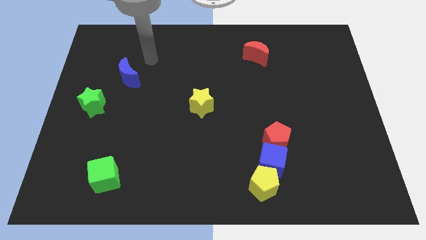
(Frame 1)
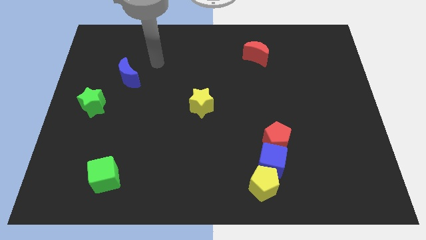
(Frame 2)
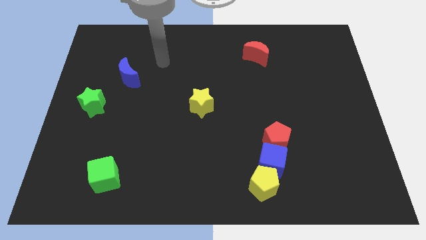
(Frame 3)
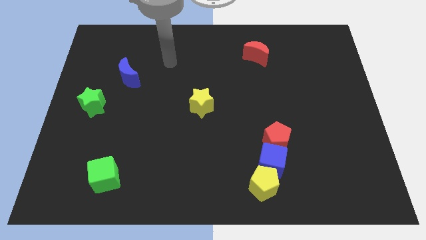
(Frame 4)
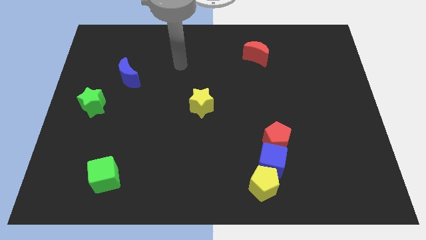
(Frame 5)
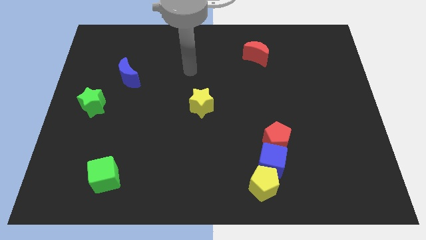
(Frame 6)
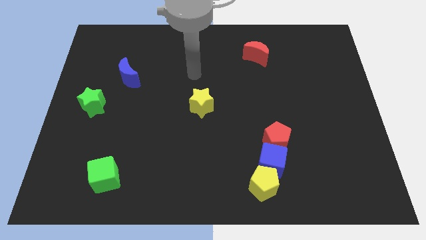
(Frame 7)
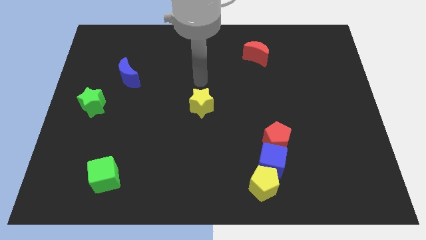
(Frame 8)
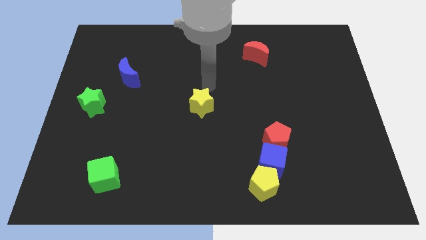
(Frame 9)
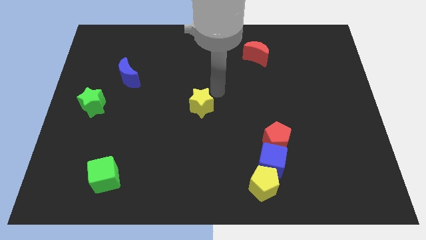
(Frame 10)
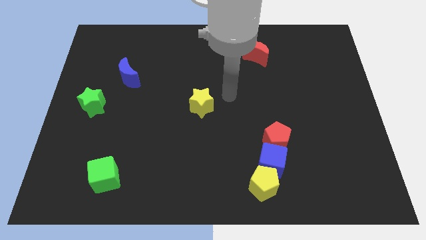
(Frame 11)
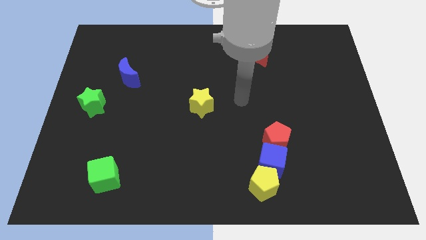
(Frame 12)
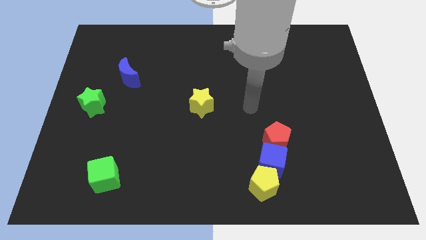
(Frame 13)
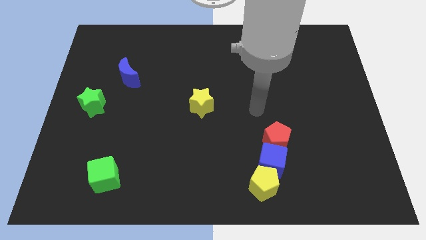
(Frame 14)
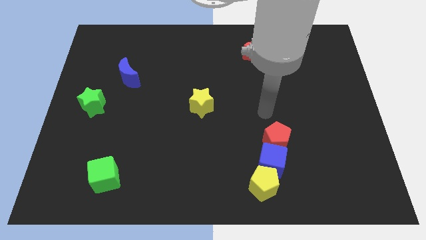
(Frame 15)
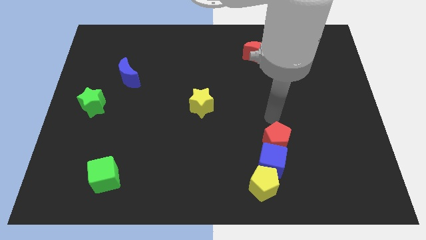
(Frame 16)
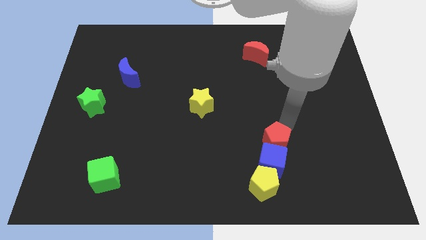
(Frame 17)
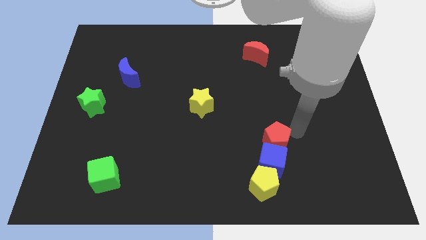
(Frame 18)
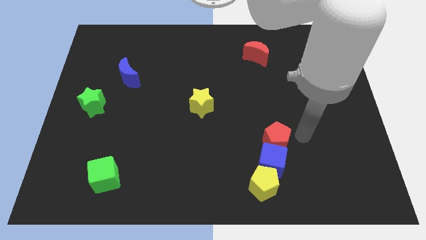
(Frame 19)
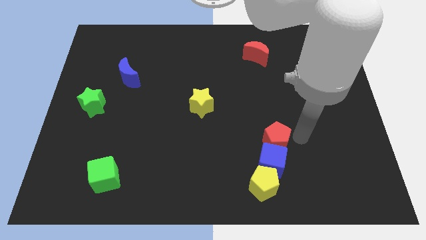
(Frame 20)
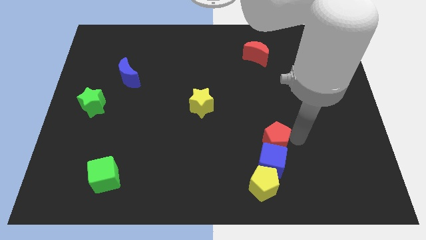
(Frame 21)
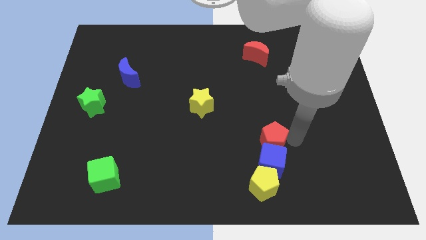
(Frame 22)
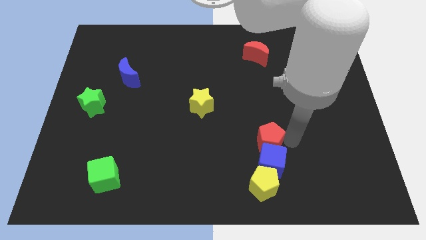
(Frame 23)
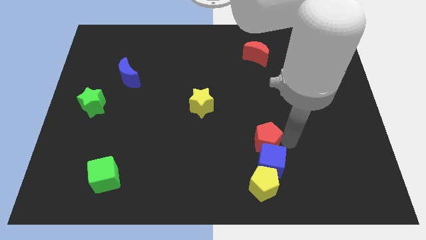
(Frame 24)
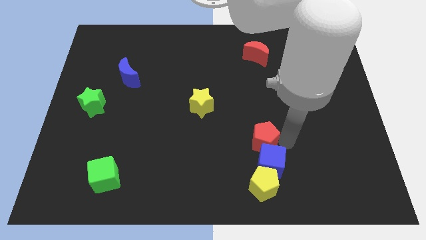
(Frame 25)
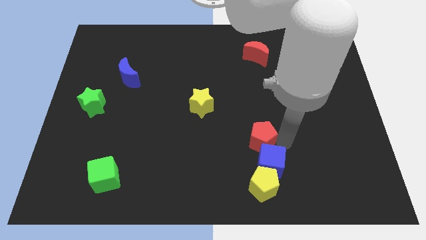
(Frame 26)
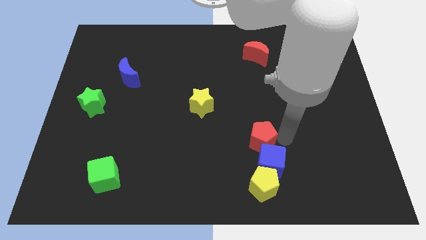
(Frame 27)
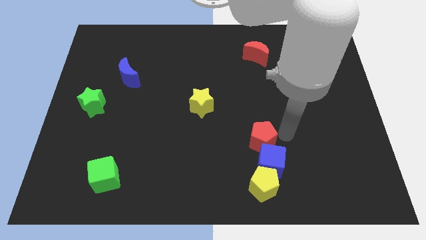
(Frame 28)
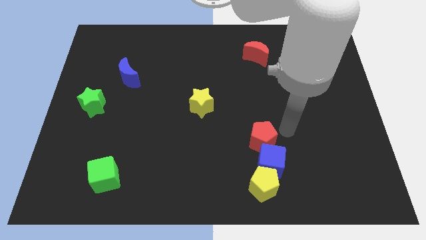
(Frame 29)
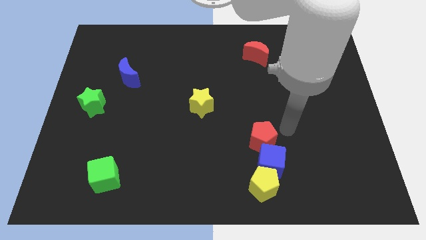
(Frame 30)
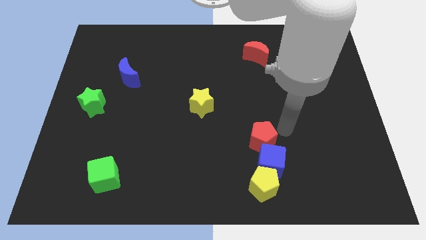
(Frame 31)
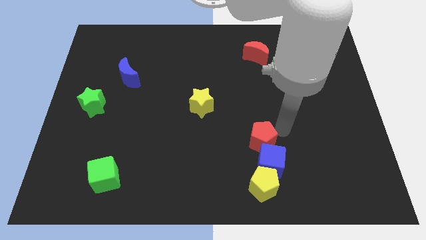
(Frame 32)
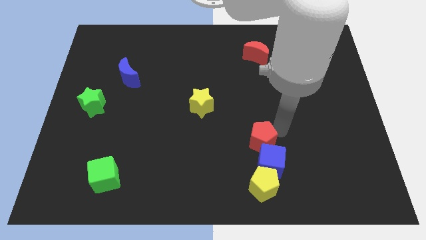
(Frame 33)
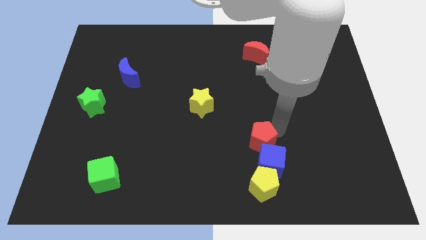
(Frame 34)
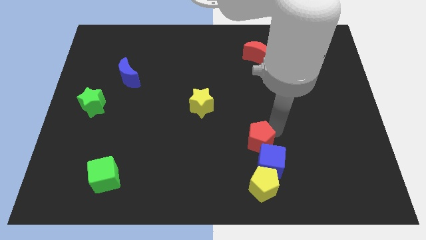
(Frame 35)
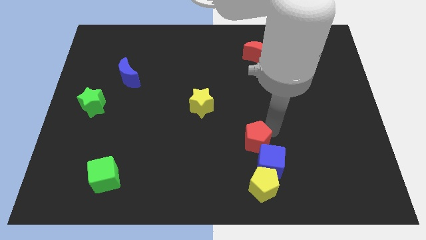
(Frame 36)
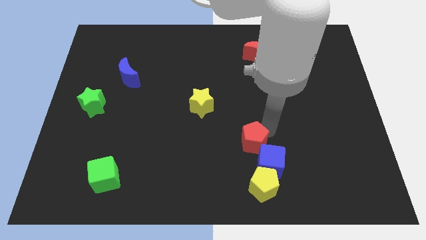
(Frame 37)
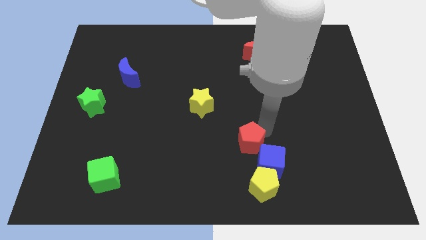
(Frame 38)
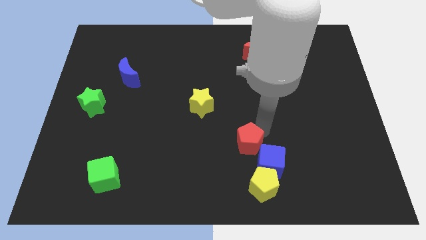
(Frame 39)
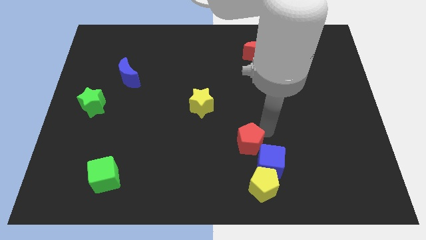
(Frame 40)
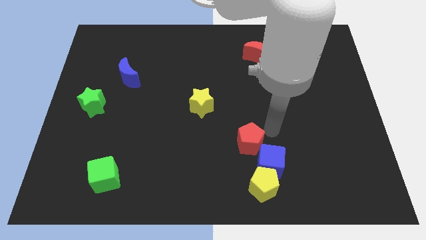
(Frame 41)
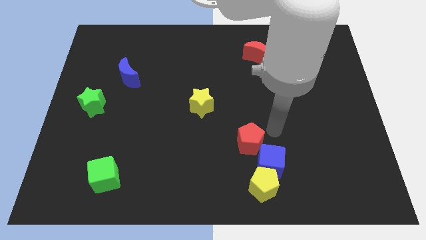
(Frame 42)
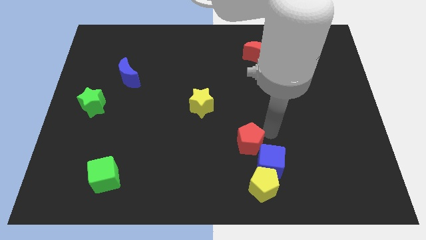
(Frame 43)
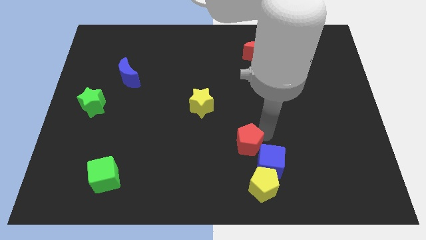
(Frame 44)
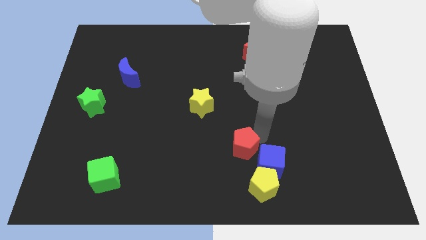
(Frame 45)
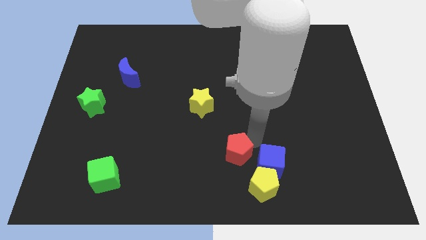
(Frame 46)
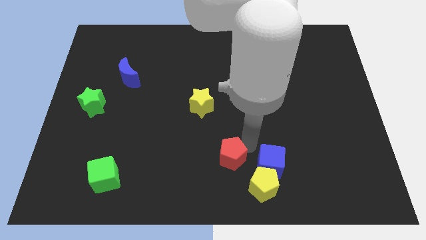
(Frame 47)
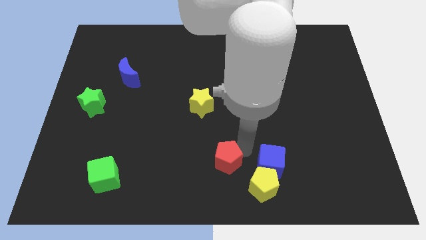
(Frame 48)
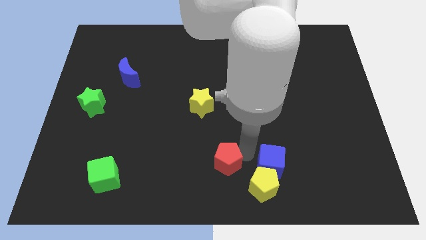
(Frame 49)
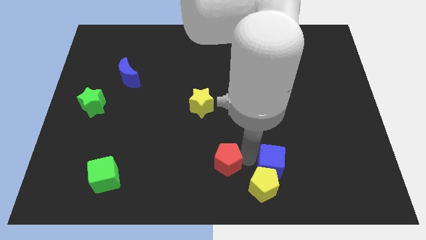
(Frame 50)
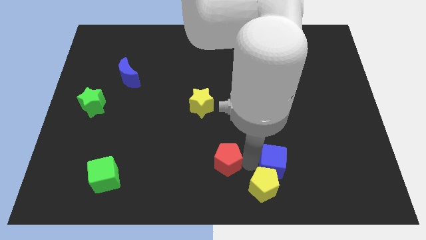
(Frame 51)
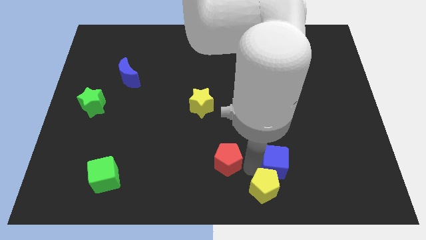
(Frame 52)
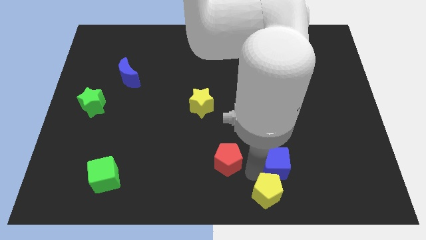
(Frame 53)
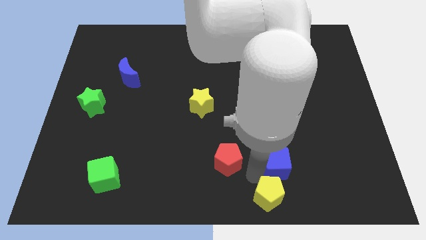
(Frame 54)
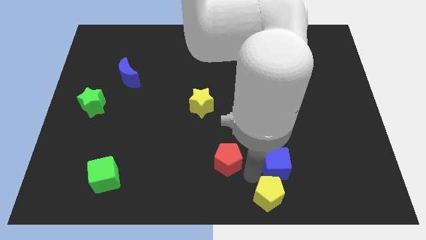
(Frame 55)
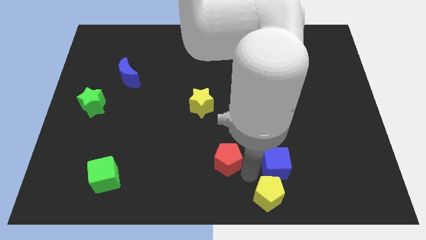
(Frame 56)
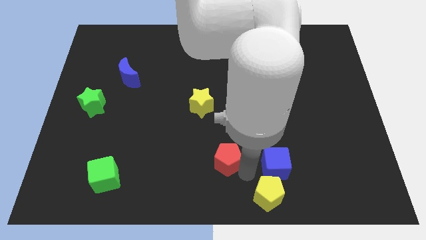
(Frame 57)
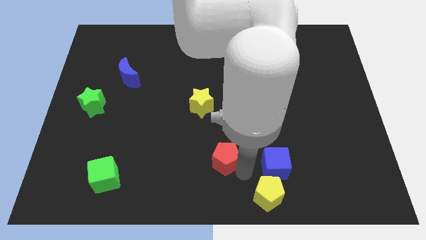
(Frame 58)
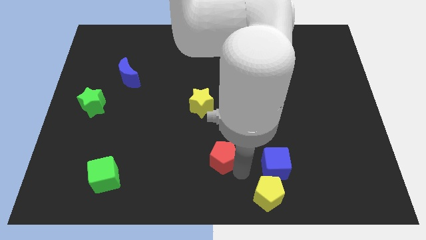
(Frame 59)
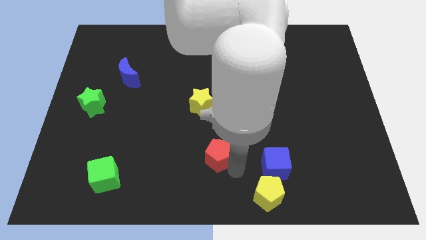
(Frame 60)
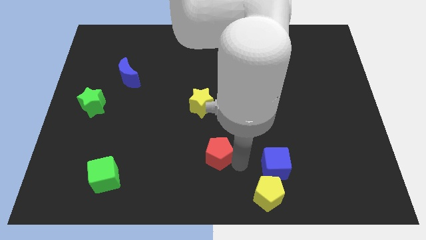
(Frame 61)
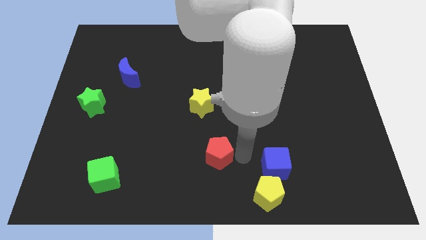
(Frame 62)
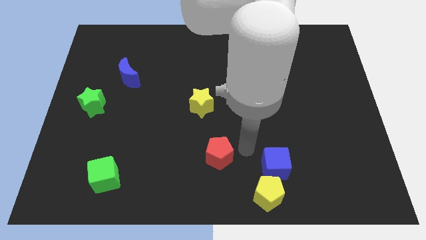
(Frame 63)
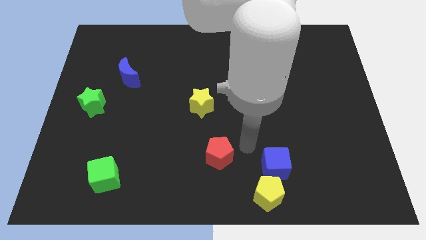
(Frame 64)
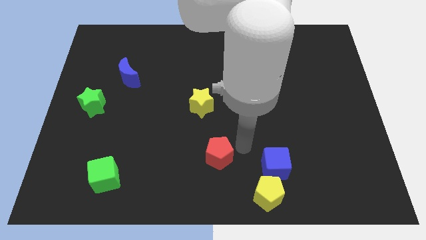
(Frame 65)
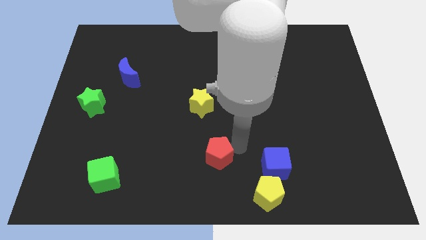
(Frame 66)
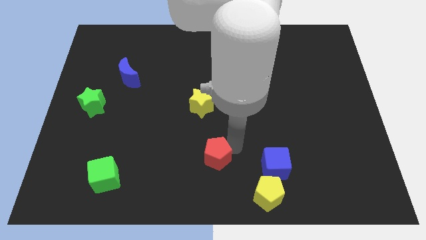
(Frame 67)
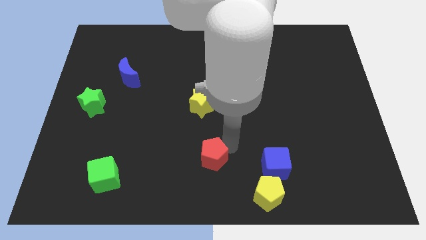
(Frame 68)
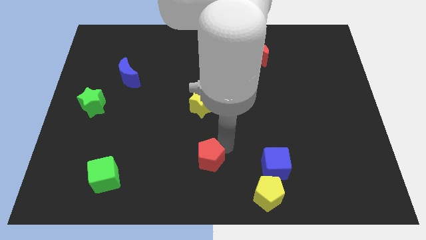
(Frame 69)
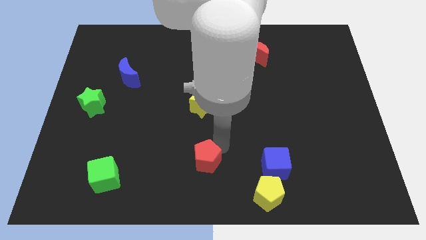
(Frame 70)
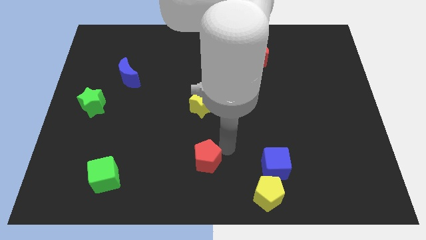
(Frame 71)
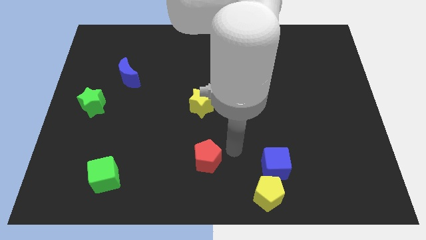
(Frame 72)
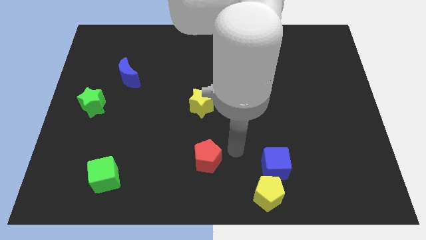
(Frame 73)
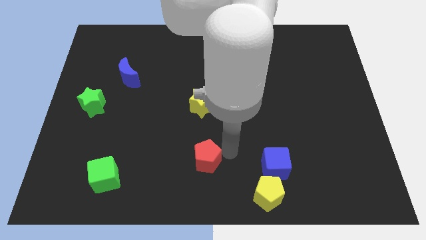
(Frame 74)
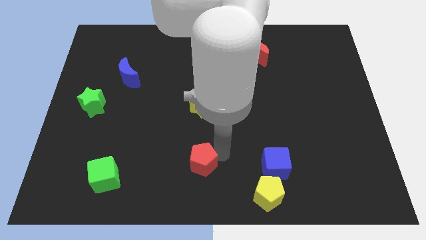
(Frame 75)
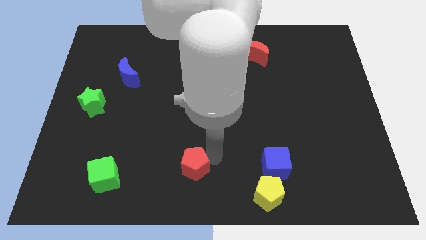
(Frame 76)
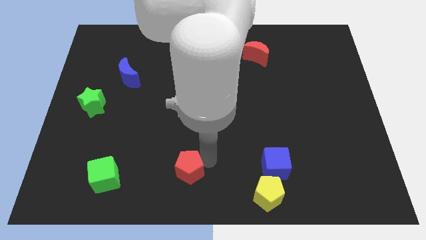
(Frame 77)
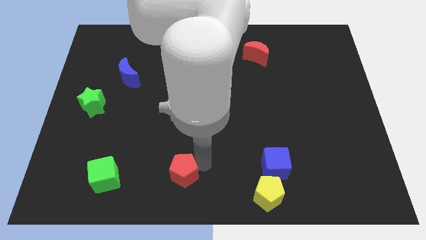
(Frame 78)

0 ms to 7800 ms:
put the red pentagon right of the green cube
